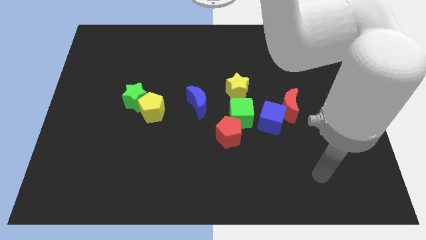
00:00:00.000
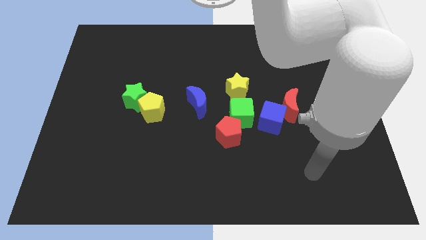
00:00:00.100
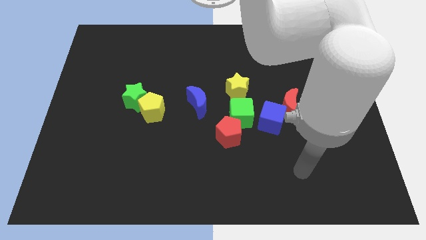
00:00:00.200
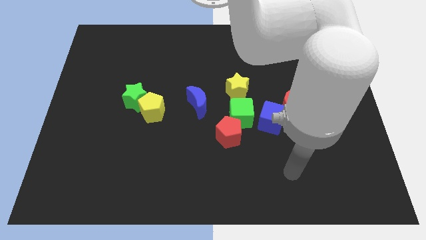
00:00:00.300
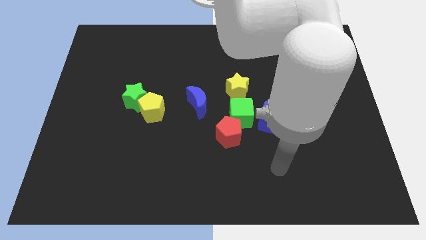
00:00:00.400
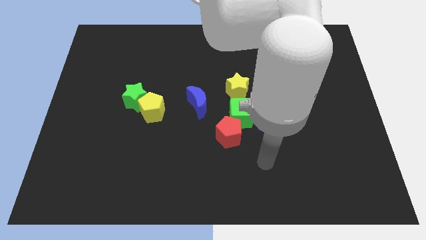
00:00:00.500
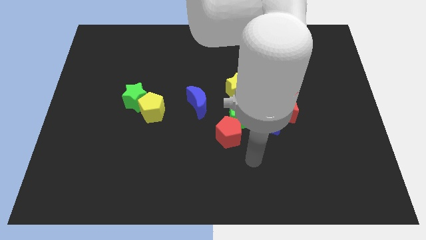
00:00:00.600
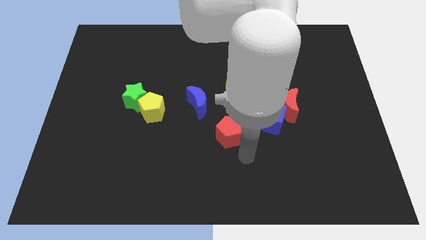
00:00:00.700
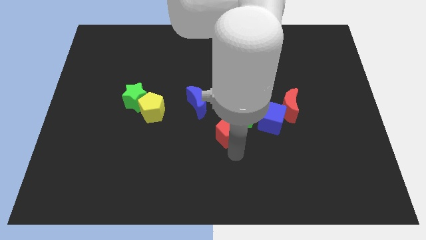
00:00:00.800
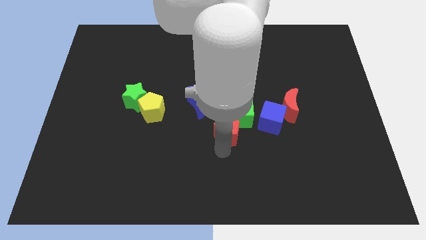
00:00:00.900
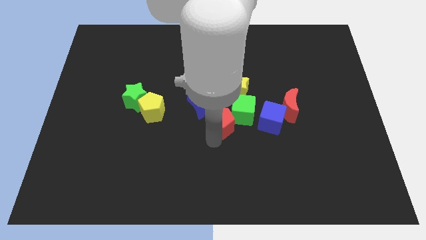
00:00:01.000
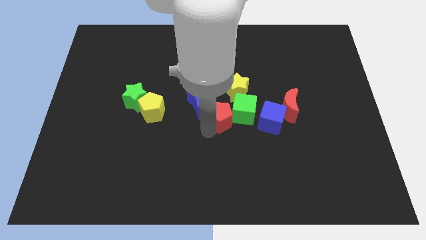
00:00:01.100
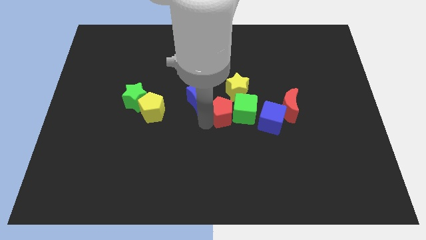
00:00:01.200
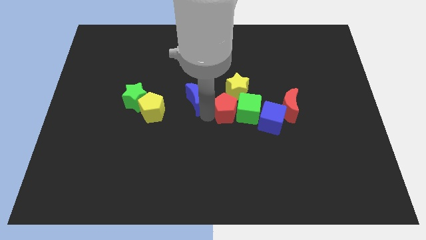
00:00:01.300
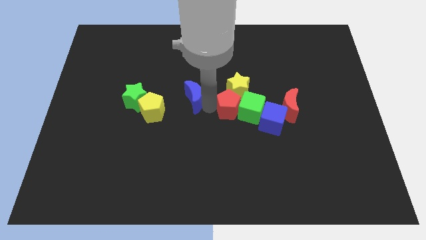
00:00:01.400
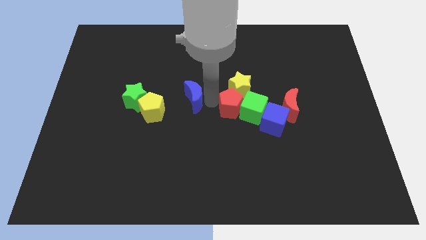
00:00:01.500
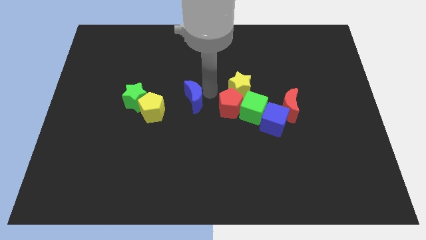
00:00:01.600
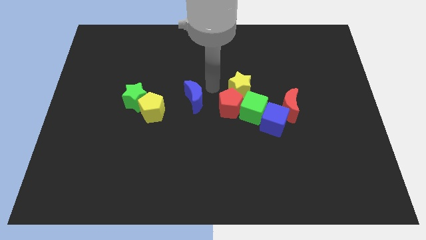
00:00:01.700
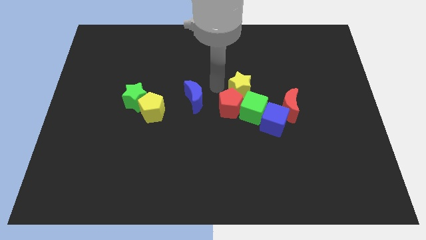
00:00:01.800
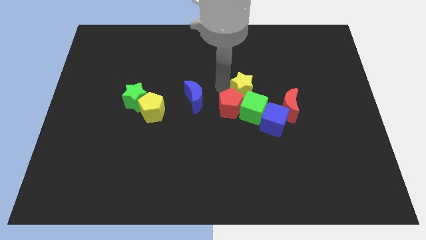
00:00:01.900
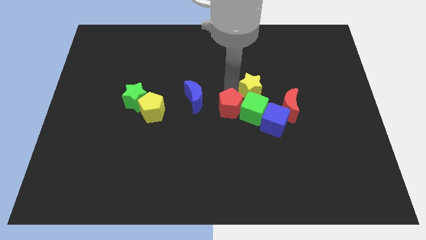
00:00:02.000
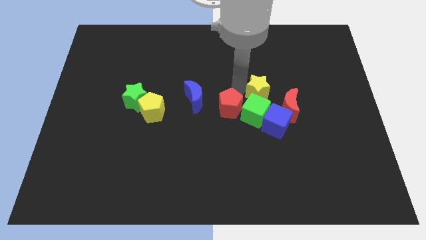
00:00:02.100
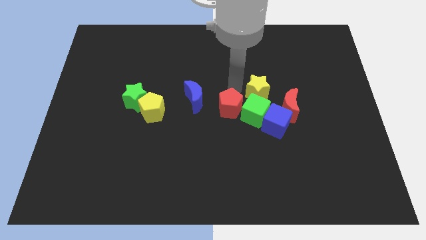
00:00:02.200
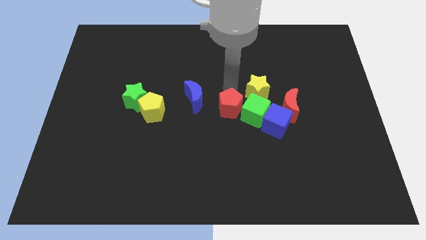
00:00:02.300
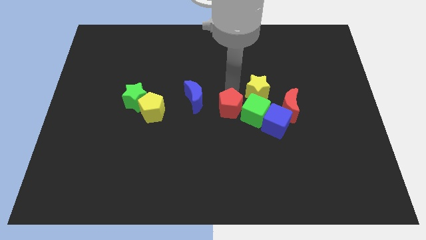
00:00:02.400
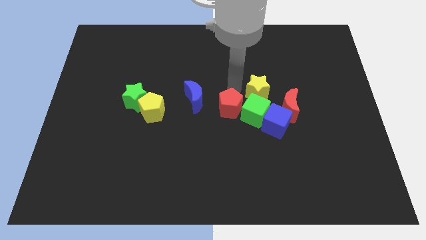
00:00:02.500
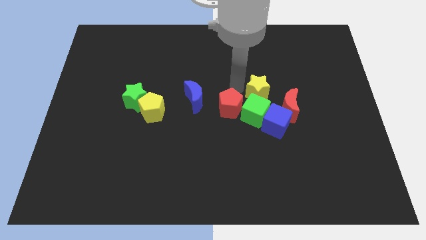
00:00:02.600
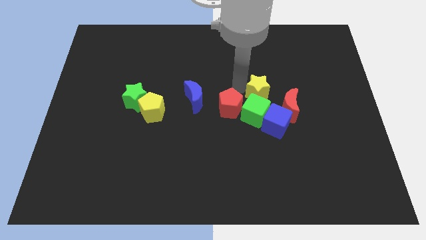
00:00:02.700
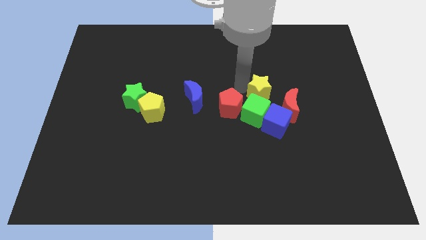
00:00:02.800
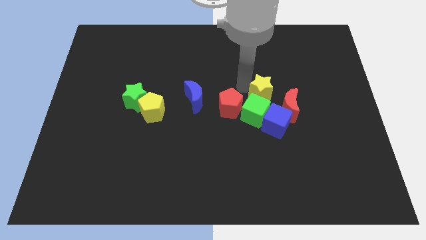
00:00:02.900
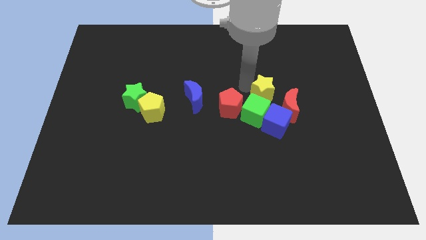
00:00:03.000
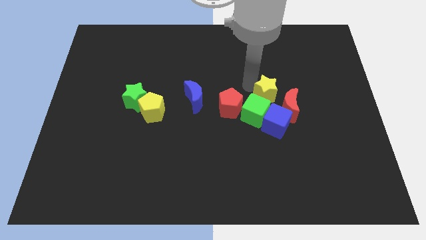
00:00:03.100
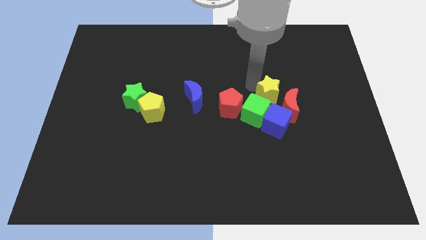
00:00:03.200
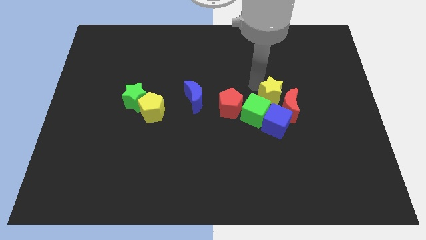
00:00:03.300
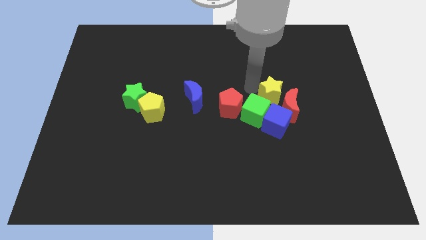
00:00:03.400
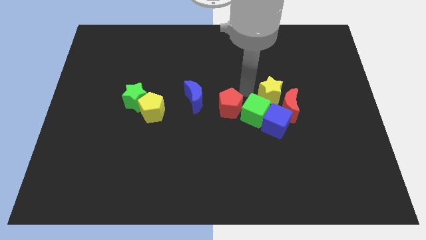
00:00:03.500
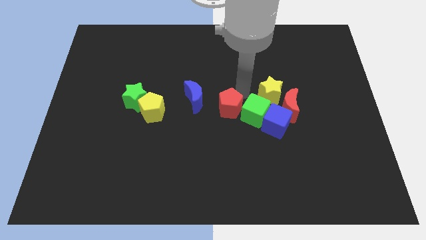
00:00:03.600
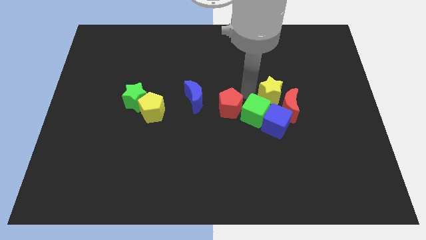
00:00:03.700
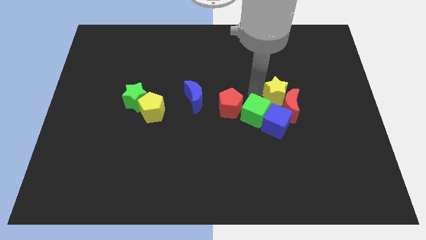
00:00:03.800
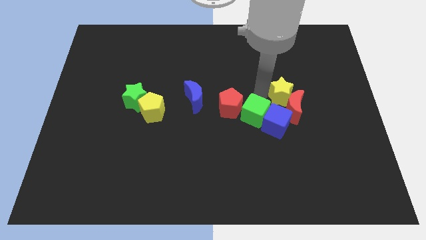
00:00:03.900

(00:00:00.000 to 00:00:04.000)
slightly push the yellow star down and right diagonally

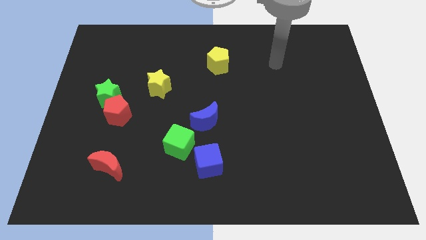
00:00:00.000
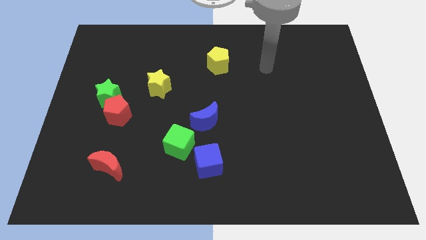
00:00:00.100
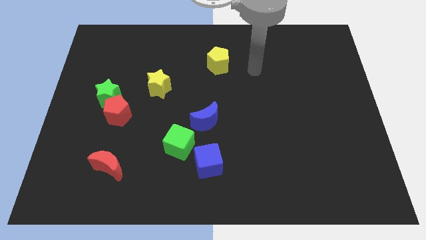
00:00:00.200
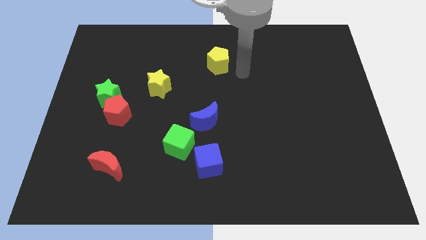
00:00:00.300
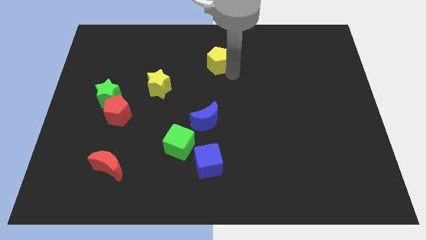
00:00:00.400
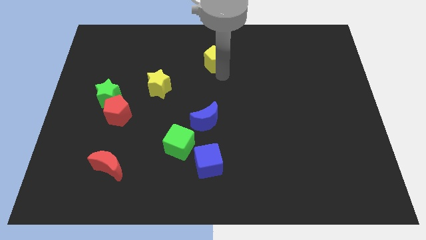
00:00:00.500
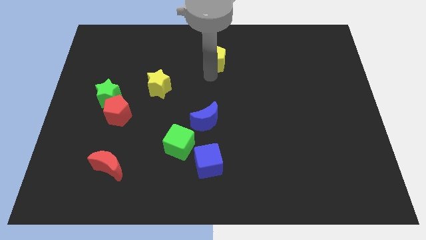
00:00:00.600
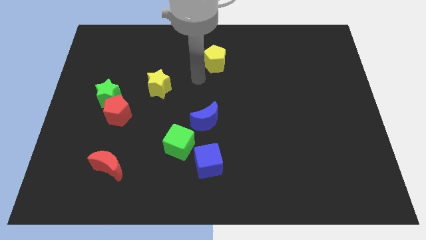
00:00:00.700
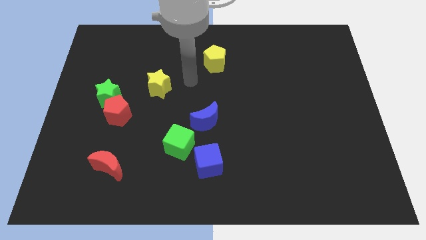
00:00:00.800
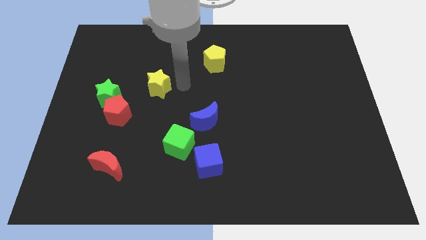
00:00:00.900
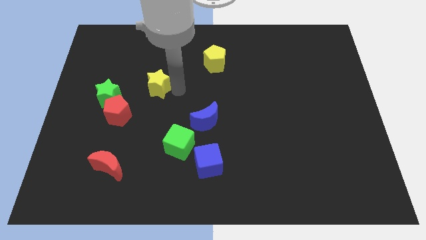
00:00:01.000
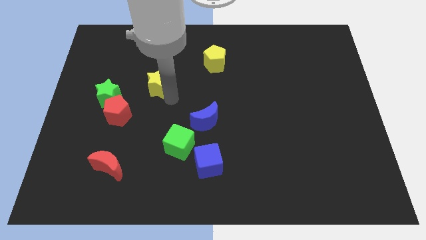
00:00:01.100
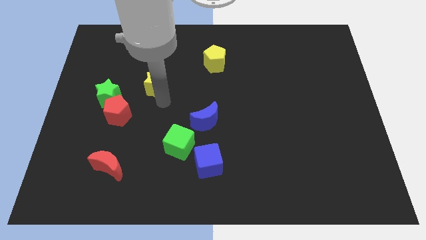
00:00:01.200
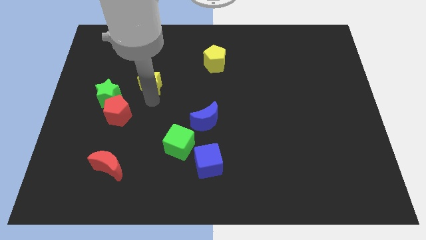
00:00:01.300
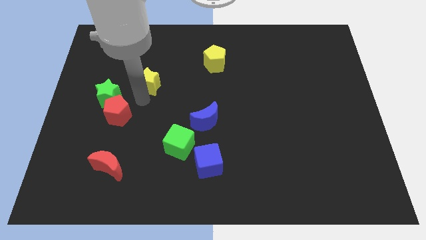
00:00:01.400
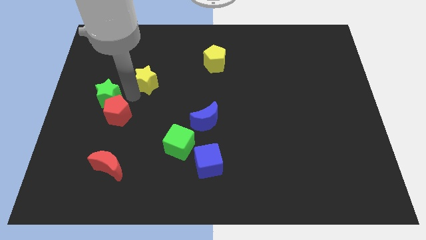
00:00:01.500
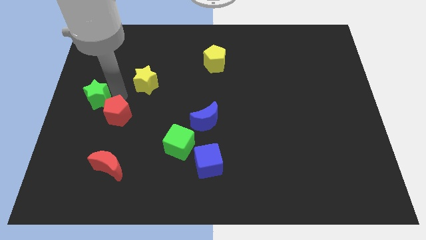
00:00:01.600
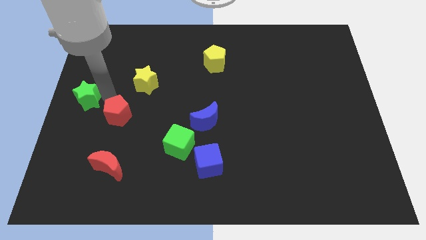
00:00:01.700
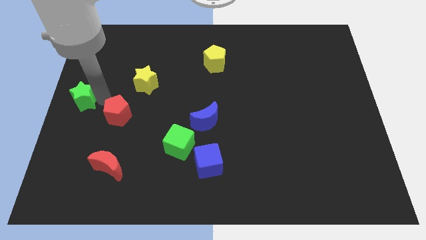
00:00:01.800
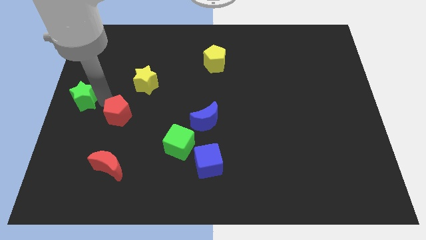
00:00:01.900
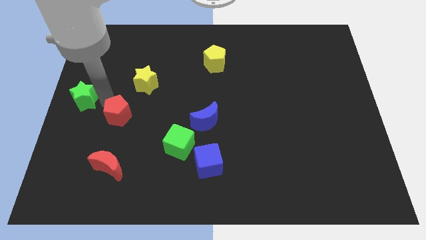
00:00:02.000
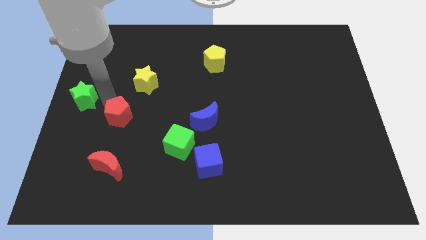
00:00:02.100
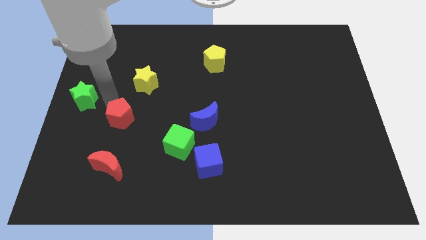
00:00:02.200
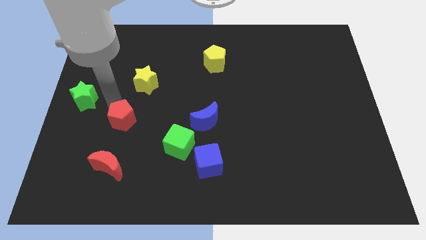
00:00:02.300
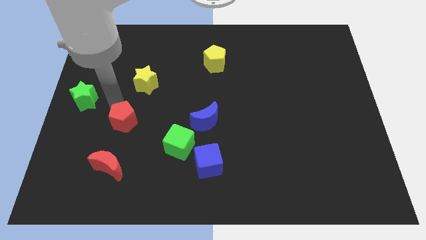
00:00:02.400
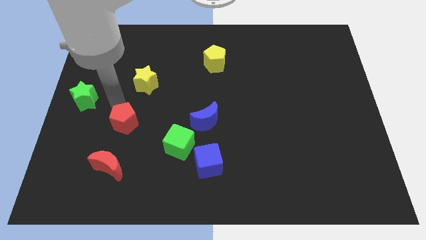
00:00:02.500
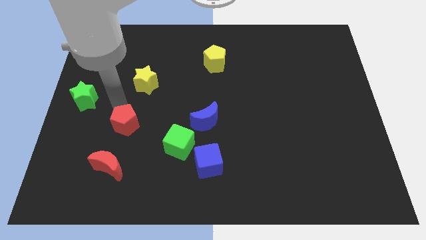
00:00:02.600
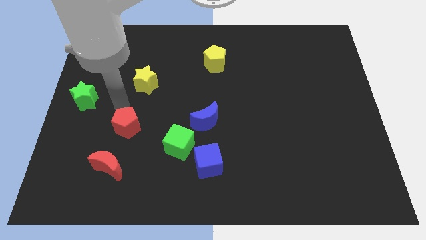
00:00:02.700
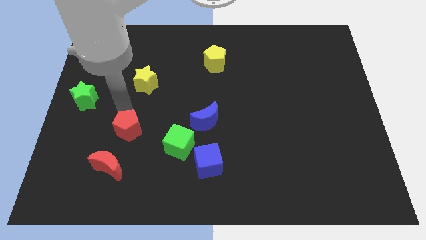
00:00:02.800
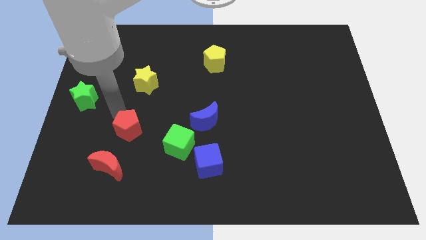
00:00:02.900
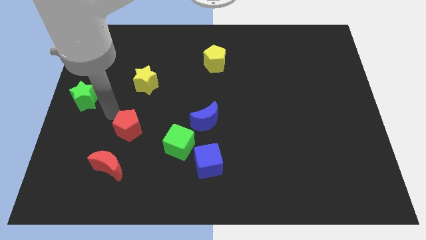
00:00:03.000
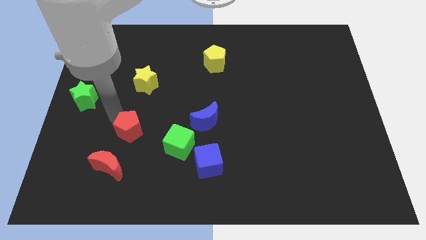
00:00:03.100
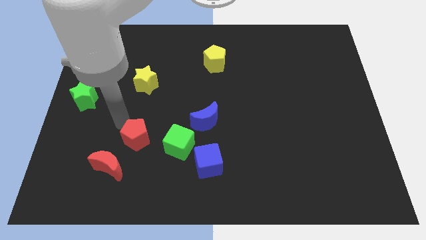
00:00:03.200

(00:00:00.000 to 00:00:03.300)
push the red pentagon a bit down and right

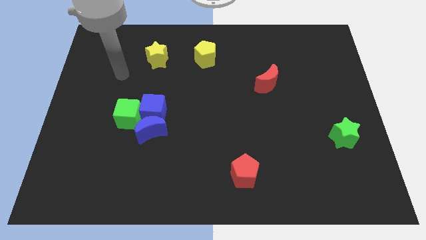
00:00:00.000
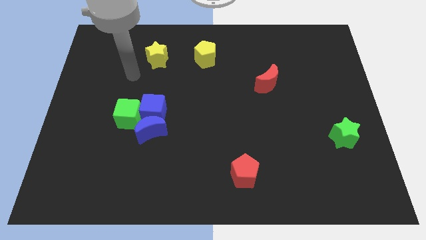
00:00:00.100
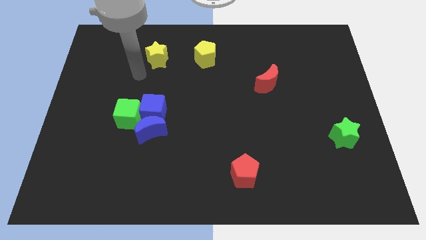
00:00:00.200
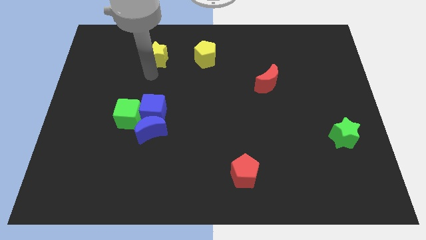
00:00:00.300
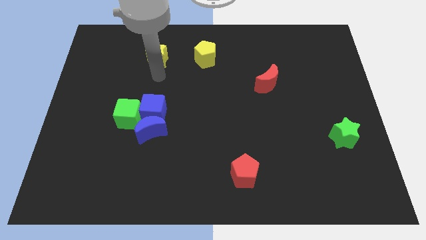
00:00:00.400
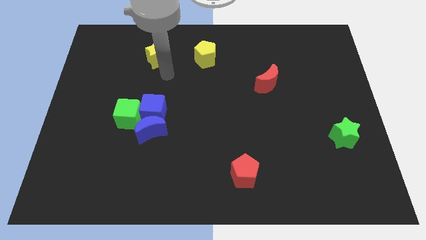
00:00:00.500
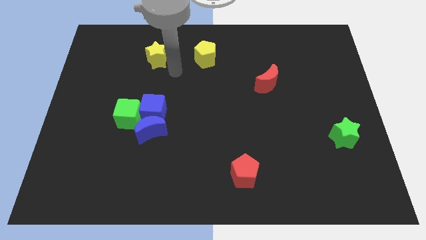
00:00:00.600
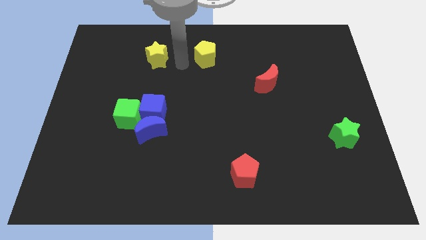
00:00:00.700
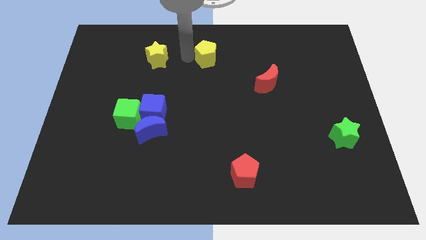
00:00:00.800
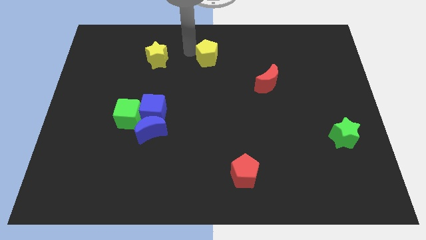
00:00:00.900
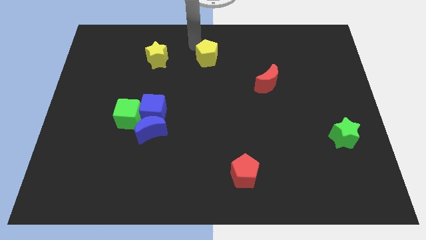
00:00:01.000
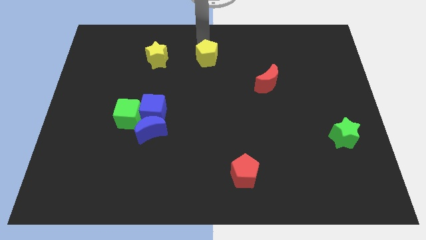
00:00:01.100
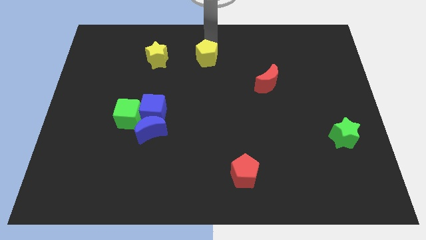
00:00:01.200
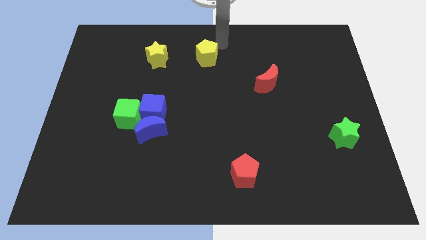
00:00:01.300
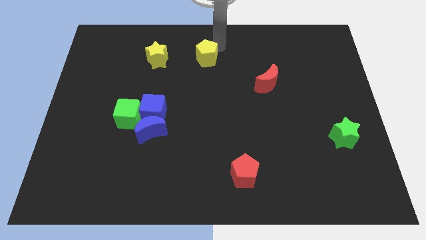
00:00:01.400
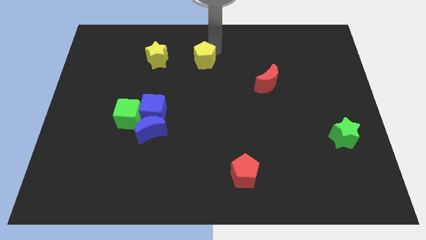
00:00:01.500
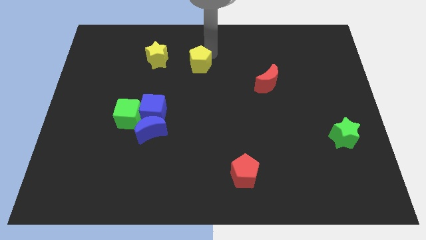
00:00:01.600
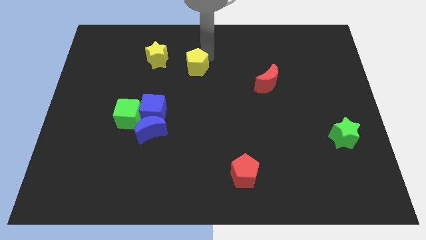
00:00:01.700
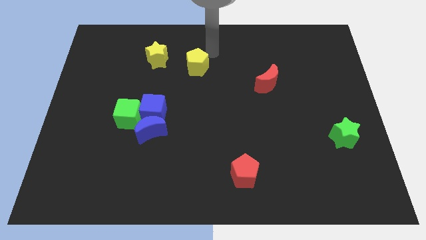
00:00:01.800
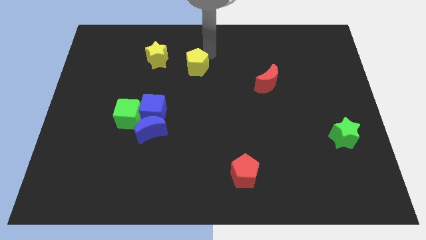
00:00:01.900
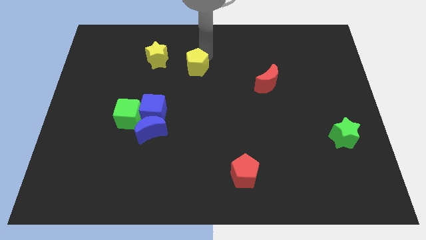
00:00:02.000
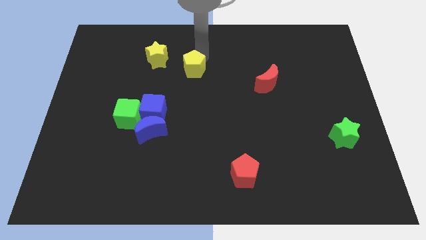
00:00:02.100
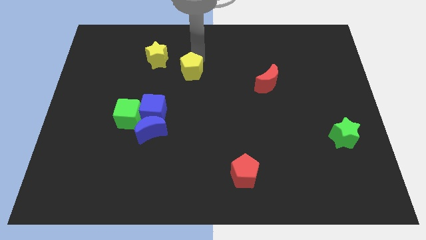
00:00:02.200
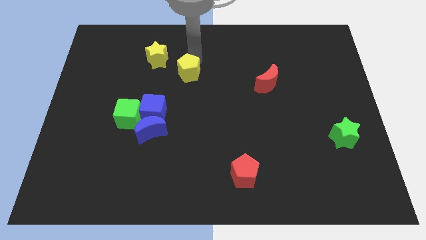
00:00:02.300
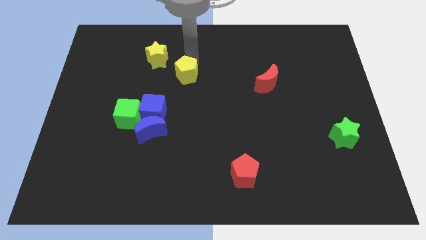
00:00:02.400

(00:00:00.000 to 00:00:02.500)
push the yellow pentagon down and to the left diagonally slightly
